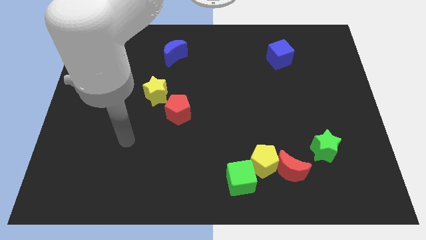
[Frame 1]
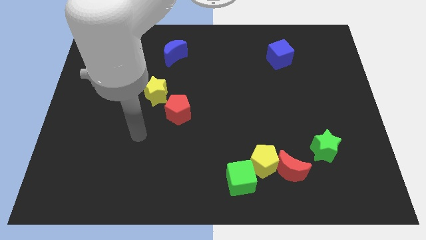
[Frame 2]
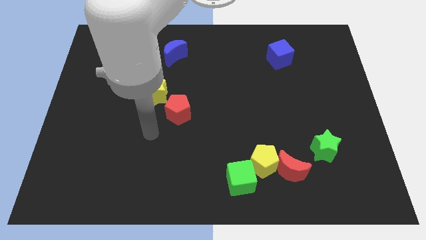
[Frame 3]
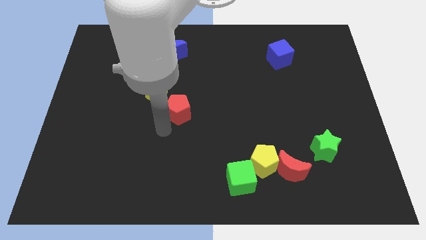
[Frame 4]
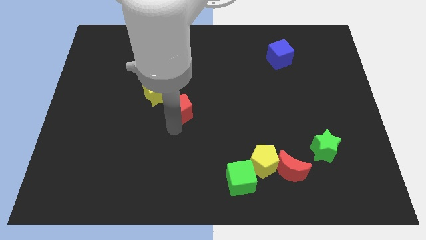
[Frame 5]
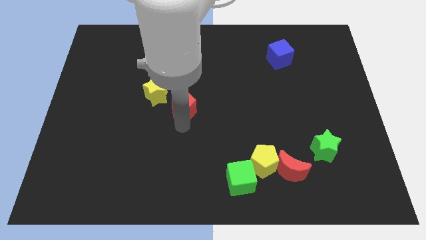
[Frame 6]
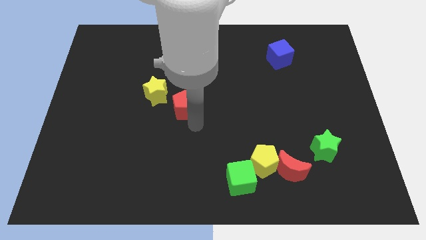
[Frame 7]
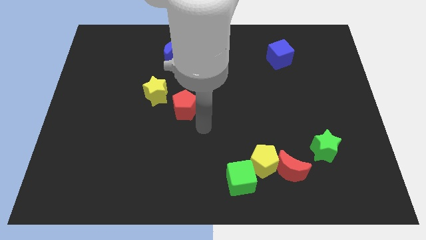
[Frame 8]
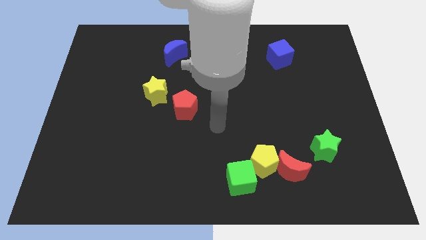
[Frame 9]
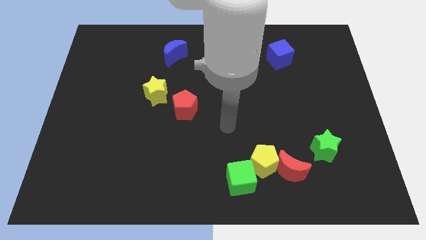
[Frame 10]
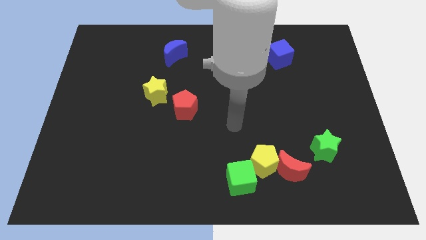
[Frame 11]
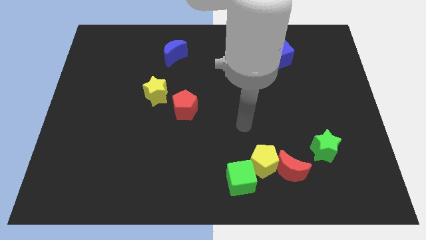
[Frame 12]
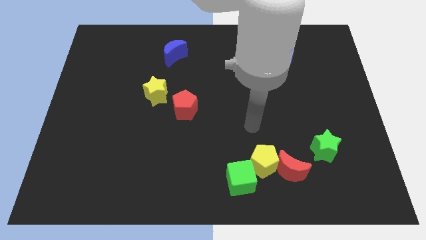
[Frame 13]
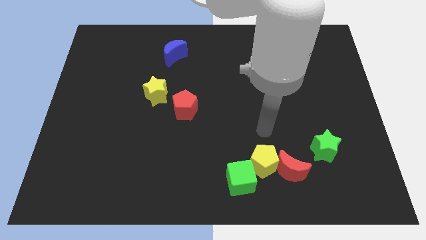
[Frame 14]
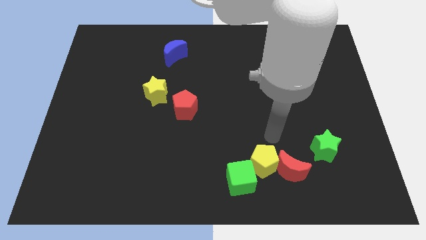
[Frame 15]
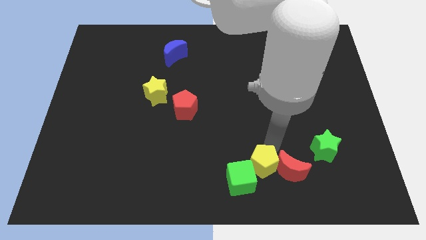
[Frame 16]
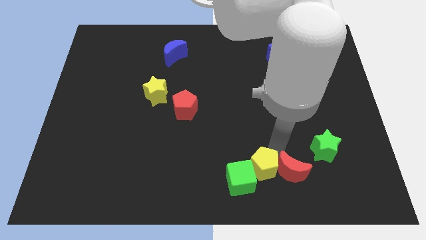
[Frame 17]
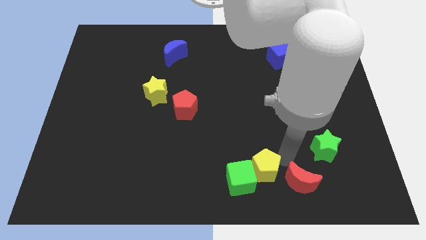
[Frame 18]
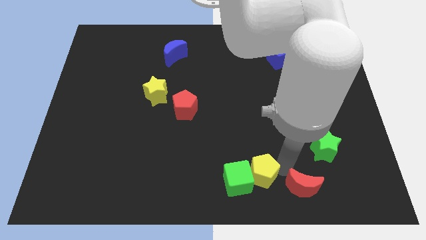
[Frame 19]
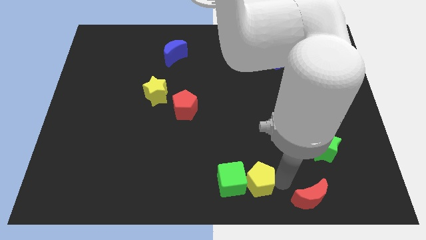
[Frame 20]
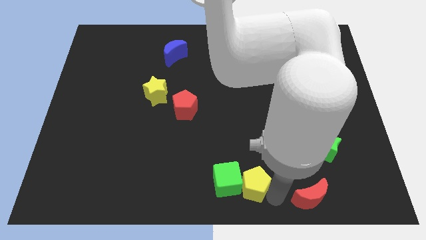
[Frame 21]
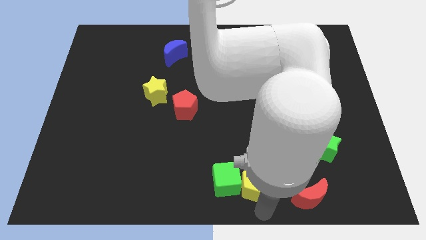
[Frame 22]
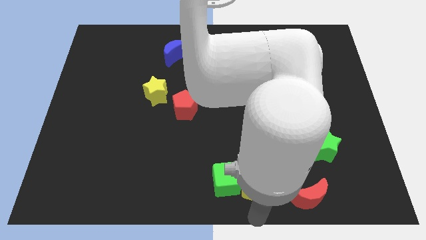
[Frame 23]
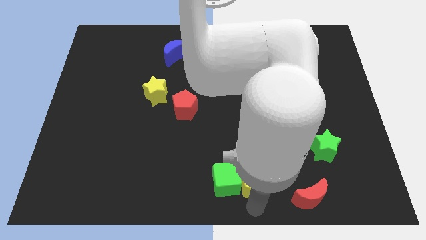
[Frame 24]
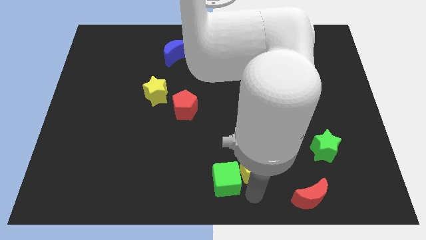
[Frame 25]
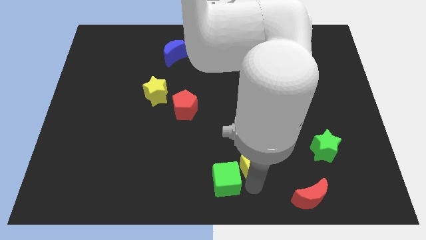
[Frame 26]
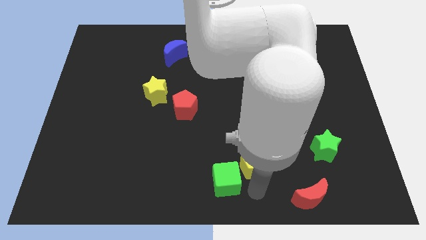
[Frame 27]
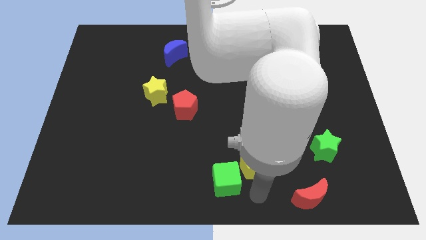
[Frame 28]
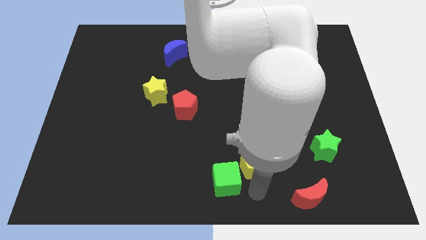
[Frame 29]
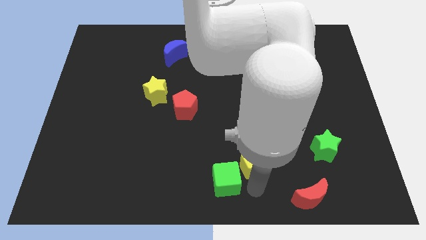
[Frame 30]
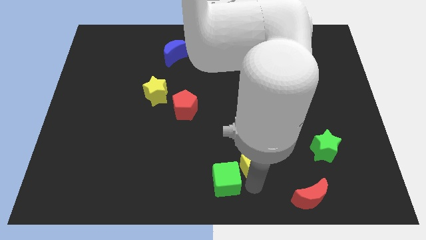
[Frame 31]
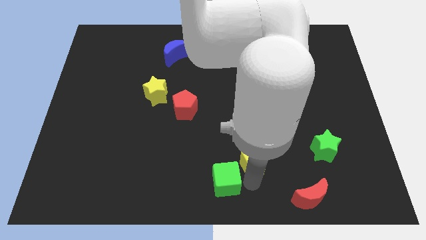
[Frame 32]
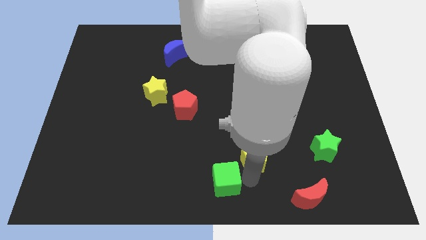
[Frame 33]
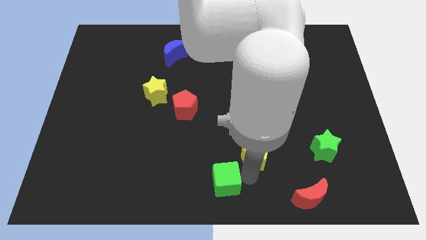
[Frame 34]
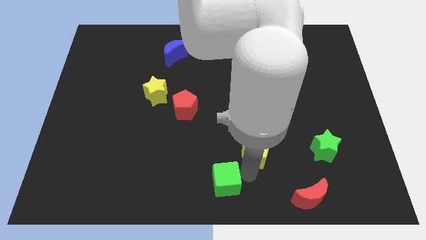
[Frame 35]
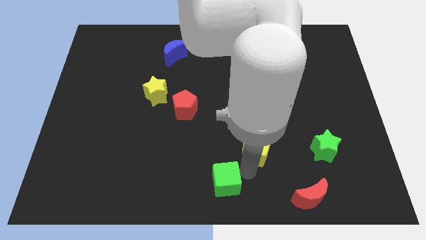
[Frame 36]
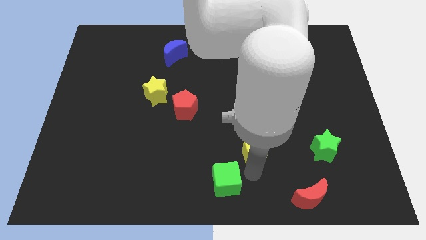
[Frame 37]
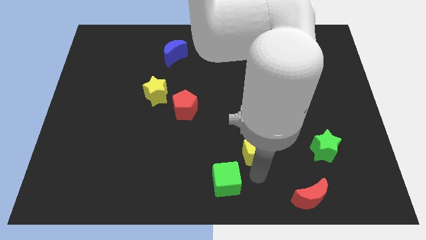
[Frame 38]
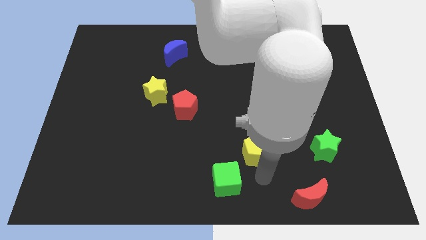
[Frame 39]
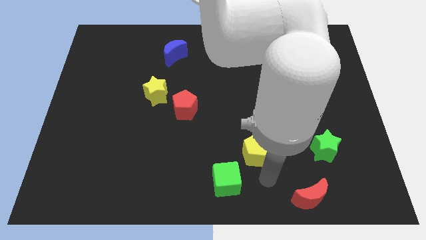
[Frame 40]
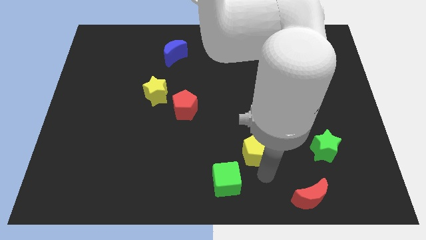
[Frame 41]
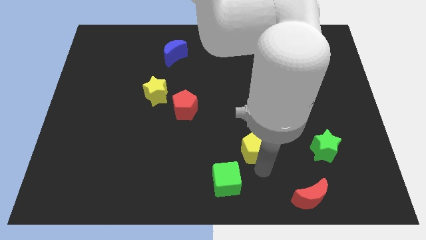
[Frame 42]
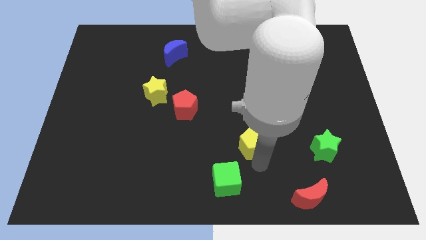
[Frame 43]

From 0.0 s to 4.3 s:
separate the yellow pentagon from the red moon and green cube

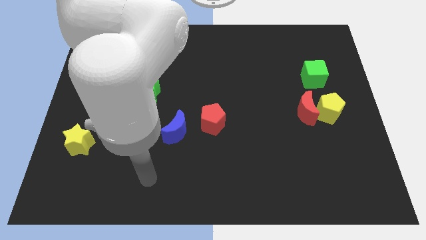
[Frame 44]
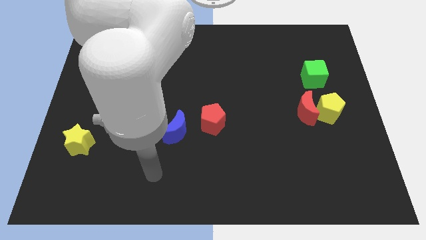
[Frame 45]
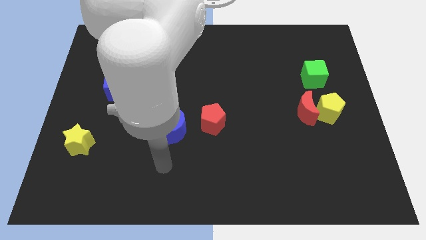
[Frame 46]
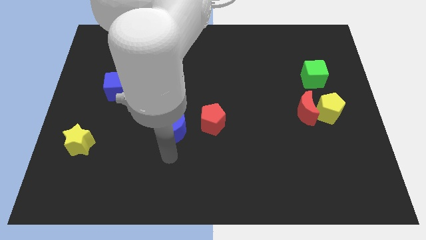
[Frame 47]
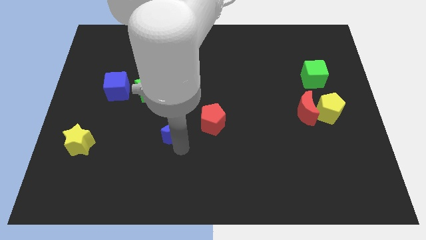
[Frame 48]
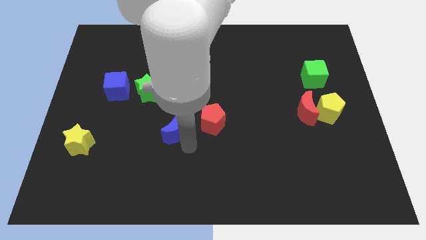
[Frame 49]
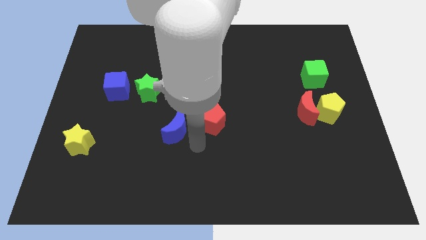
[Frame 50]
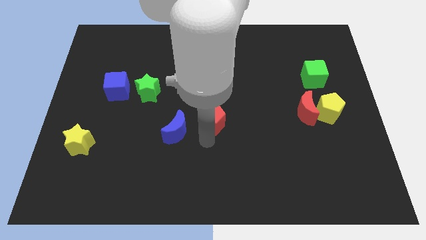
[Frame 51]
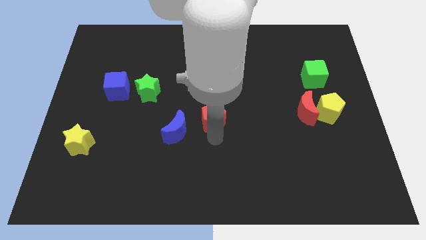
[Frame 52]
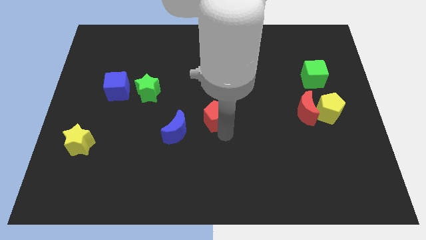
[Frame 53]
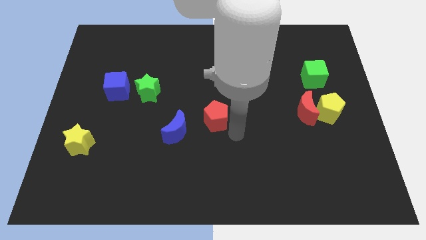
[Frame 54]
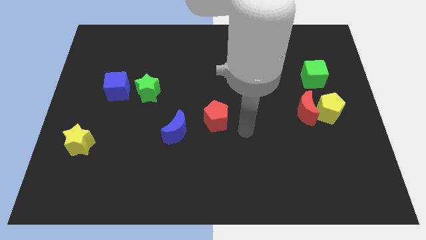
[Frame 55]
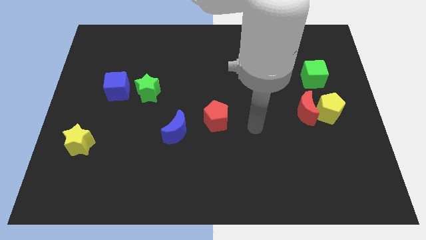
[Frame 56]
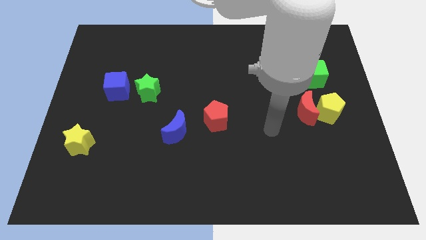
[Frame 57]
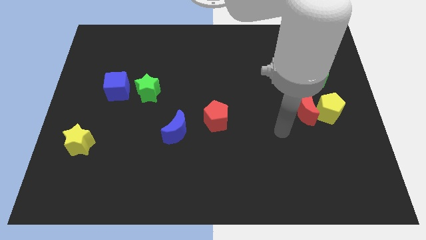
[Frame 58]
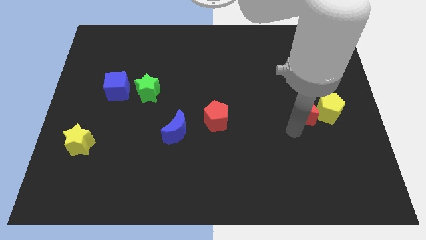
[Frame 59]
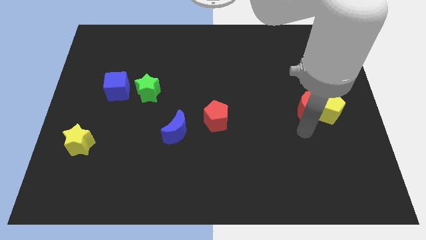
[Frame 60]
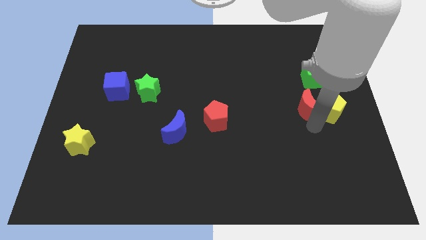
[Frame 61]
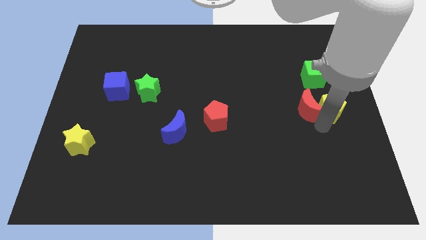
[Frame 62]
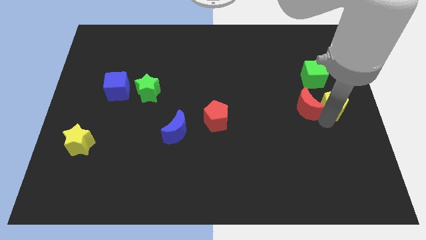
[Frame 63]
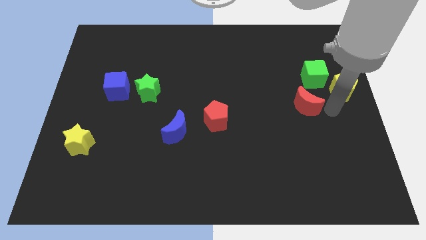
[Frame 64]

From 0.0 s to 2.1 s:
move the red moon away from the yellow pentagon

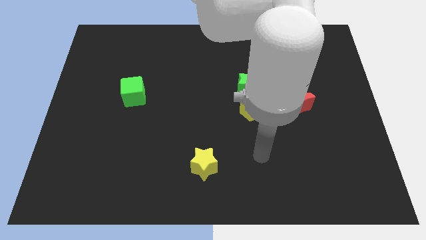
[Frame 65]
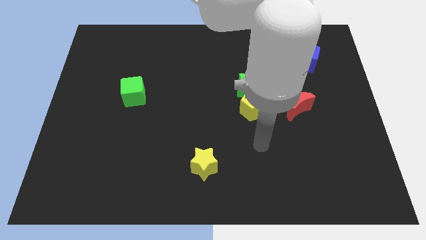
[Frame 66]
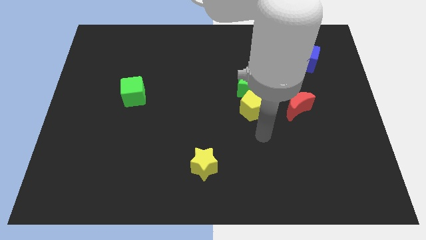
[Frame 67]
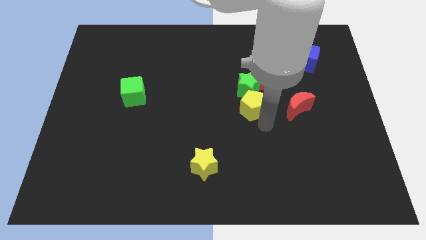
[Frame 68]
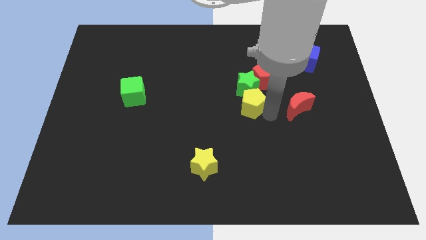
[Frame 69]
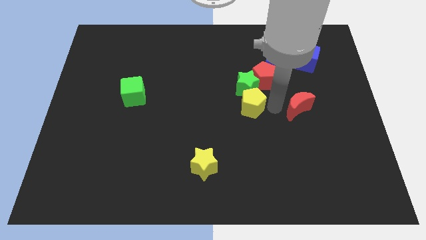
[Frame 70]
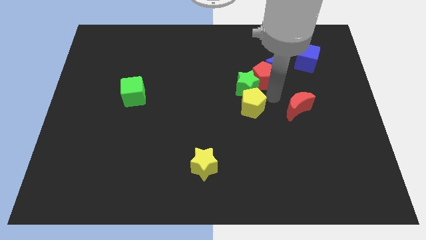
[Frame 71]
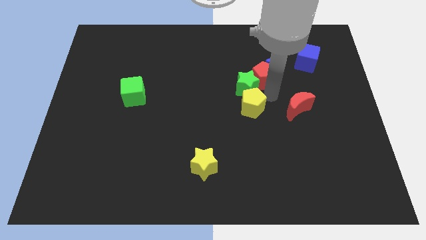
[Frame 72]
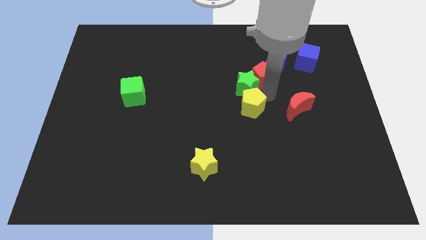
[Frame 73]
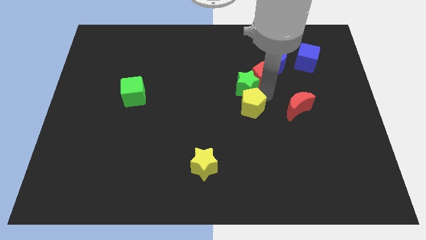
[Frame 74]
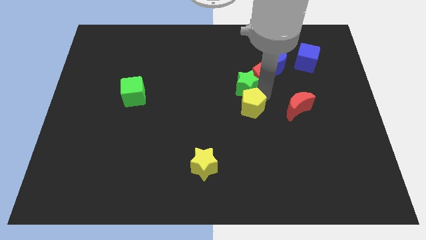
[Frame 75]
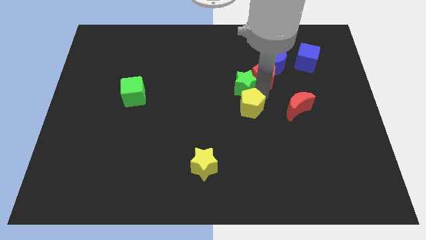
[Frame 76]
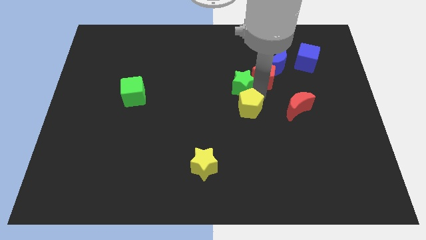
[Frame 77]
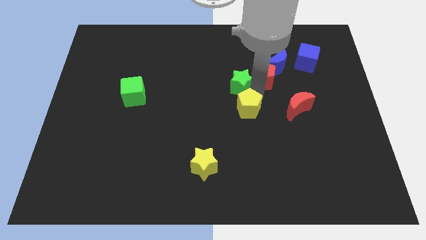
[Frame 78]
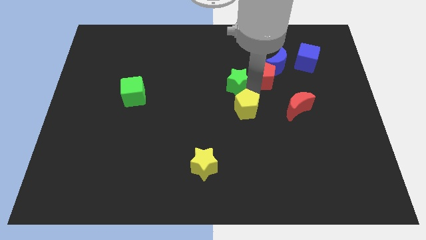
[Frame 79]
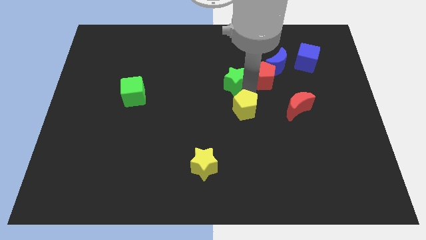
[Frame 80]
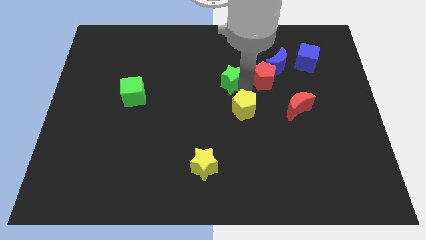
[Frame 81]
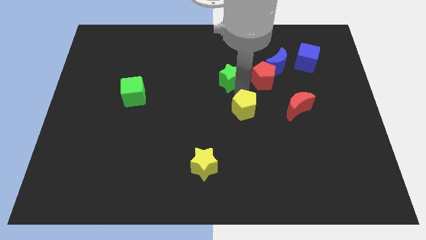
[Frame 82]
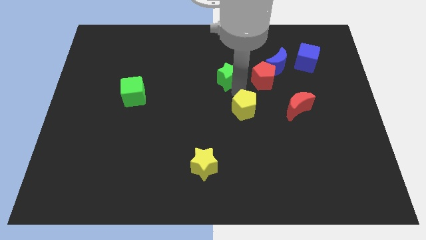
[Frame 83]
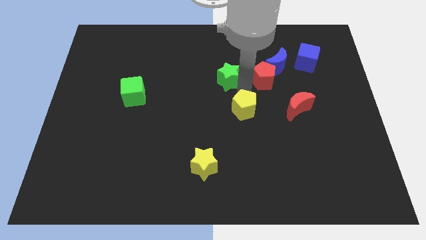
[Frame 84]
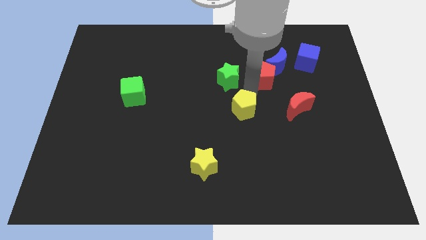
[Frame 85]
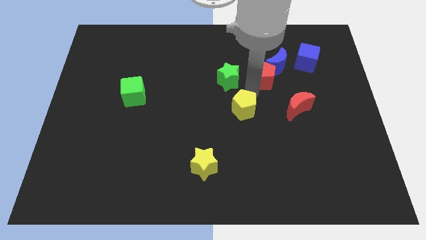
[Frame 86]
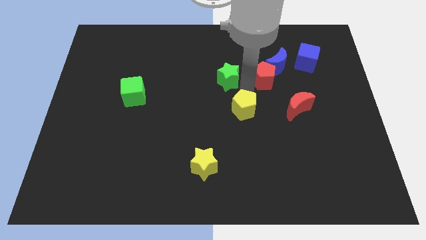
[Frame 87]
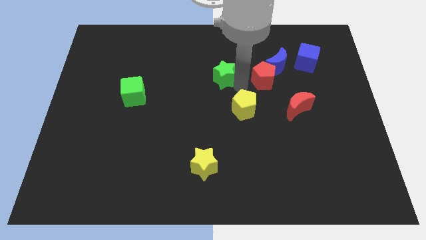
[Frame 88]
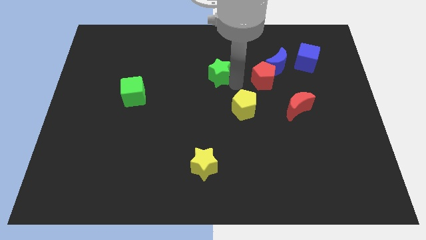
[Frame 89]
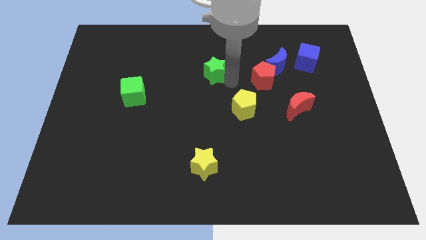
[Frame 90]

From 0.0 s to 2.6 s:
pull the green star apart from the red pentagon and yellow pentagon

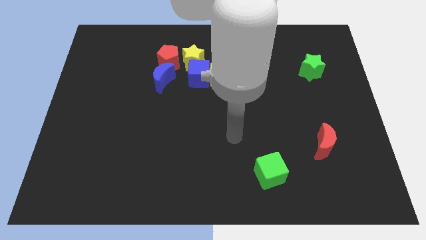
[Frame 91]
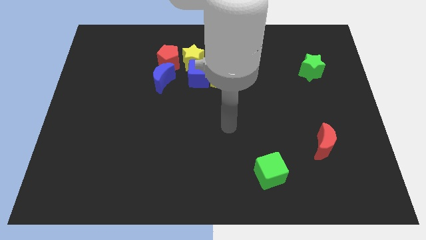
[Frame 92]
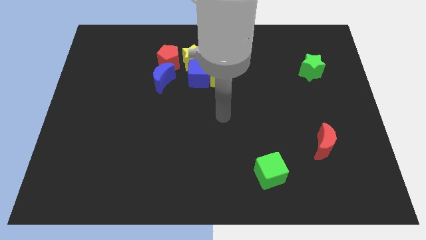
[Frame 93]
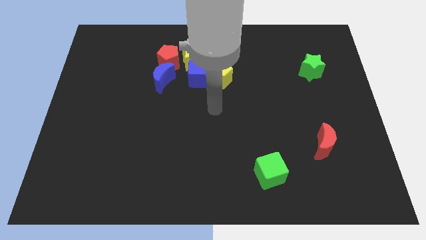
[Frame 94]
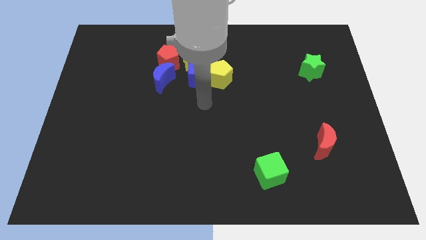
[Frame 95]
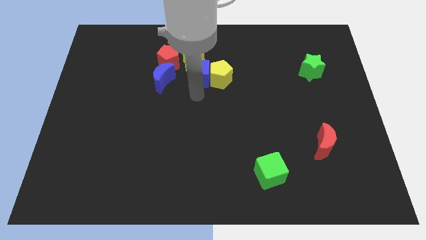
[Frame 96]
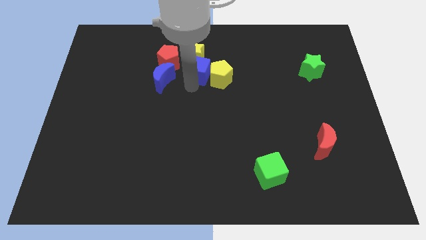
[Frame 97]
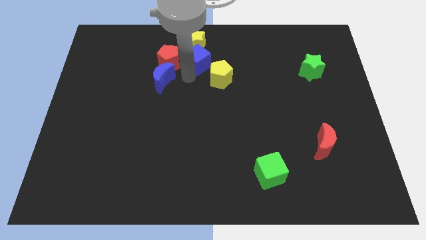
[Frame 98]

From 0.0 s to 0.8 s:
move the yellow pentagon away from the blue cube and yellow star
